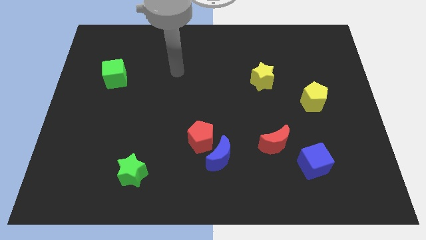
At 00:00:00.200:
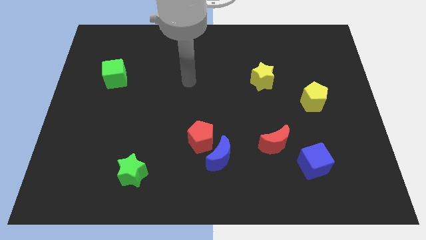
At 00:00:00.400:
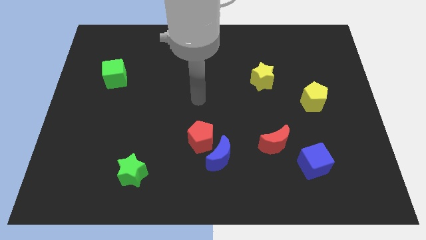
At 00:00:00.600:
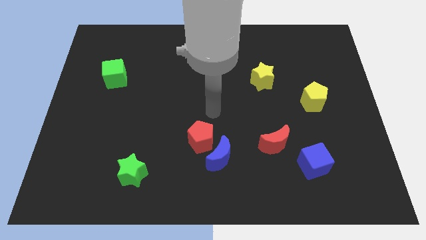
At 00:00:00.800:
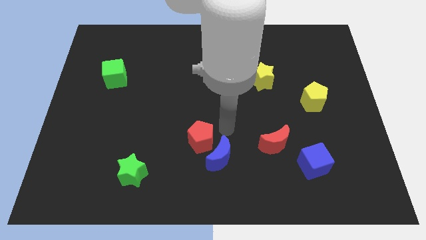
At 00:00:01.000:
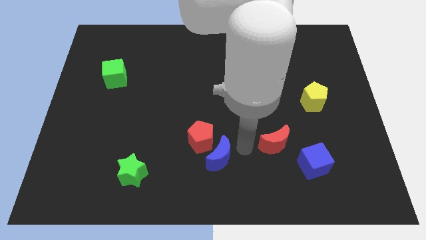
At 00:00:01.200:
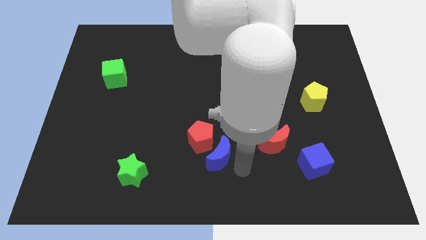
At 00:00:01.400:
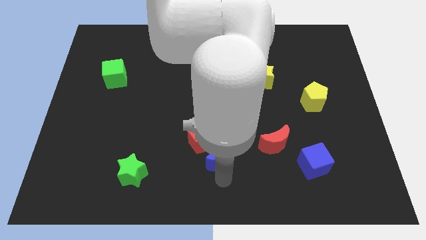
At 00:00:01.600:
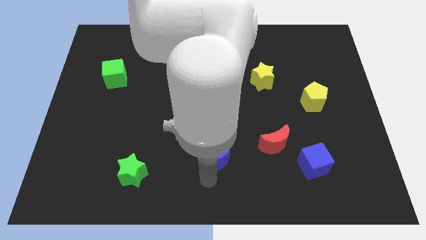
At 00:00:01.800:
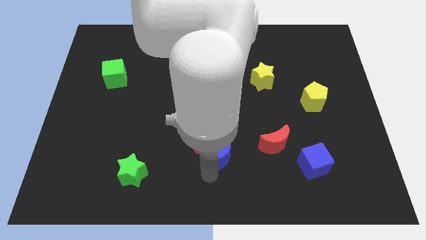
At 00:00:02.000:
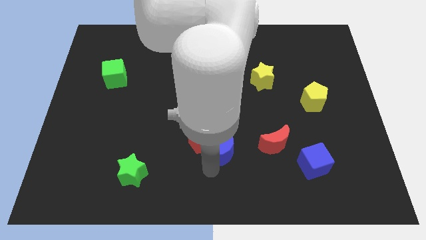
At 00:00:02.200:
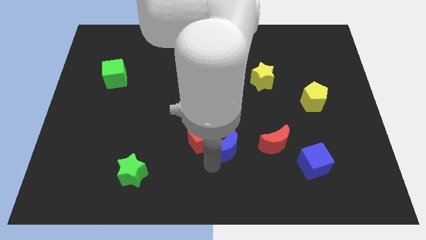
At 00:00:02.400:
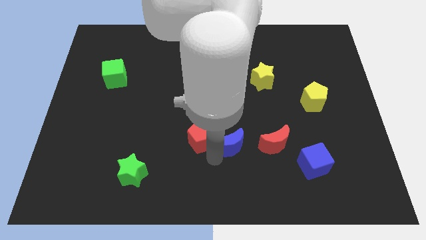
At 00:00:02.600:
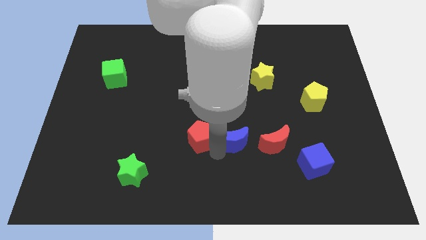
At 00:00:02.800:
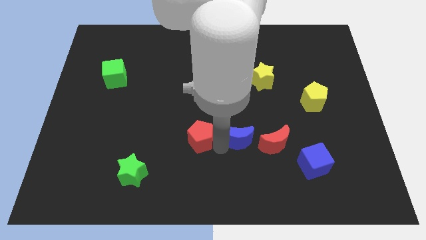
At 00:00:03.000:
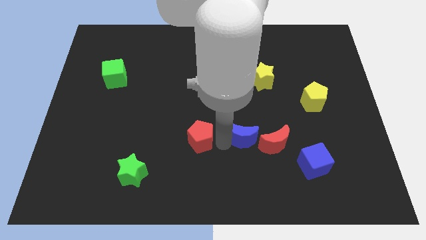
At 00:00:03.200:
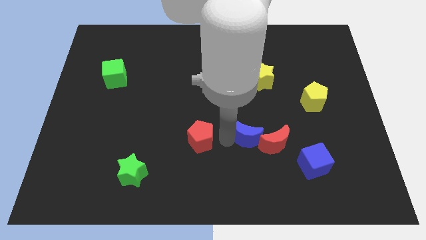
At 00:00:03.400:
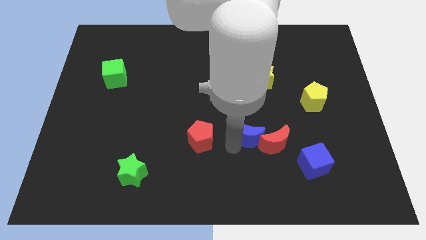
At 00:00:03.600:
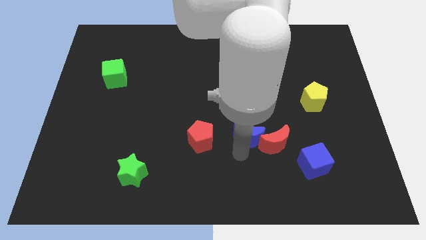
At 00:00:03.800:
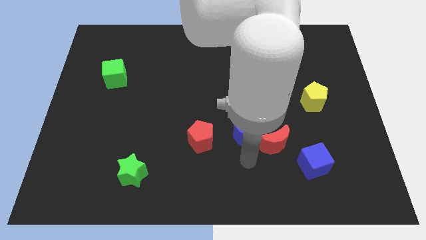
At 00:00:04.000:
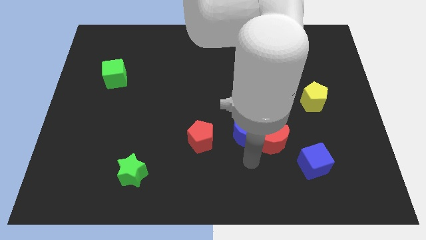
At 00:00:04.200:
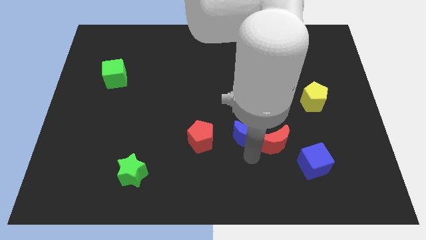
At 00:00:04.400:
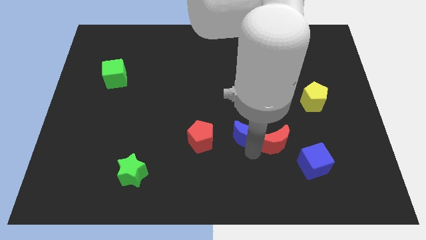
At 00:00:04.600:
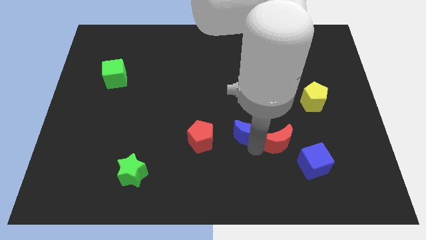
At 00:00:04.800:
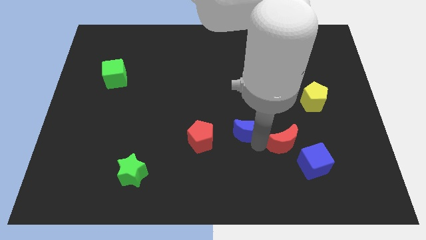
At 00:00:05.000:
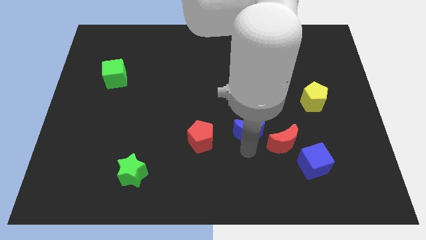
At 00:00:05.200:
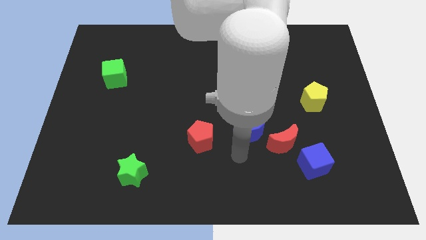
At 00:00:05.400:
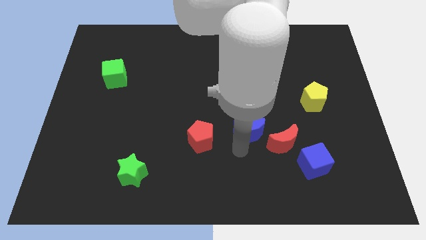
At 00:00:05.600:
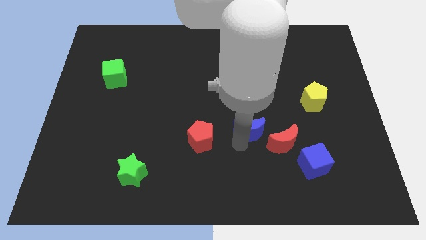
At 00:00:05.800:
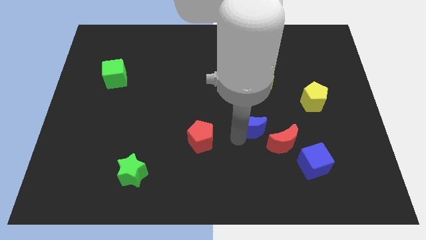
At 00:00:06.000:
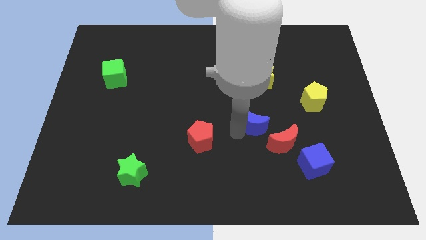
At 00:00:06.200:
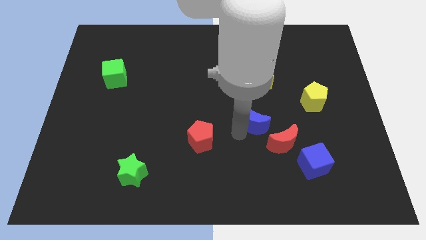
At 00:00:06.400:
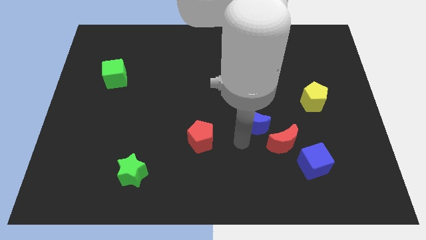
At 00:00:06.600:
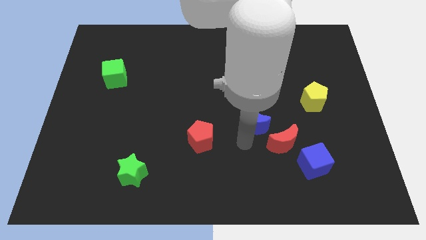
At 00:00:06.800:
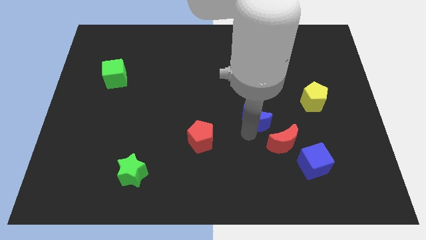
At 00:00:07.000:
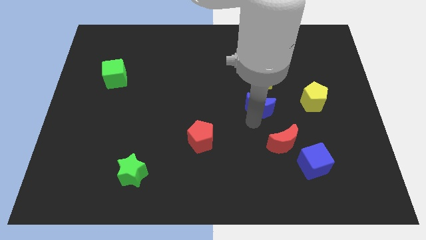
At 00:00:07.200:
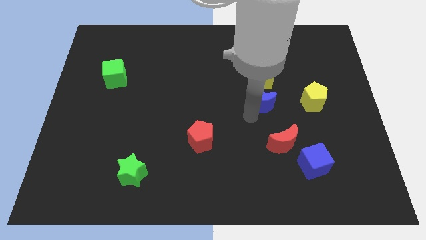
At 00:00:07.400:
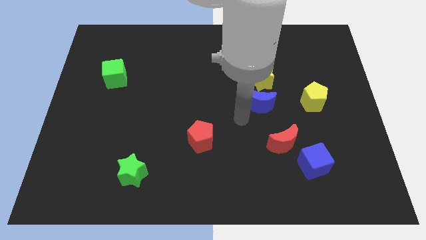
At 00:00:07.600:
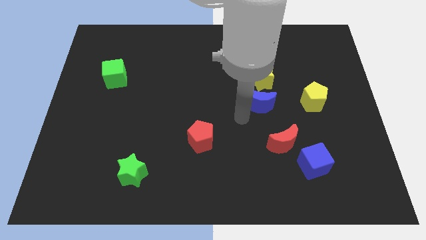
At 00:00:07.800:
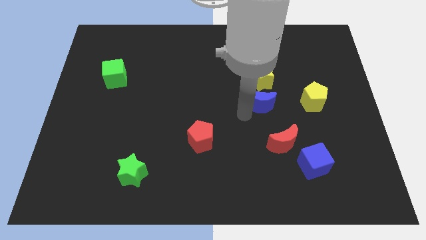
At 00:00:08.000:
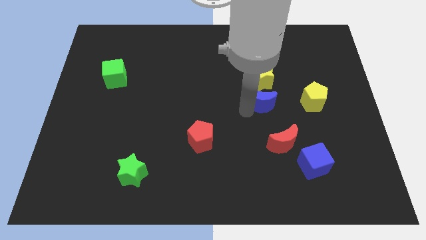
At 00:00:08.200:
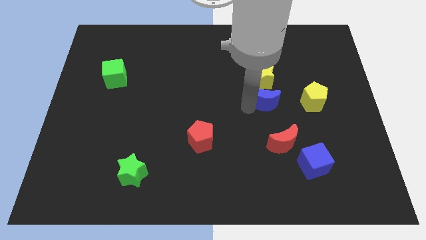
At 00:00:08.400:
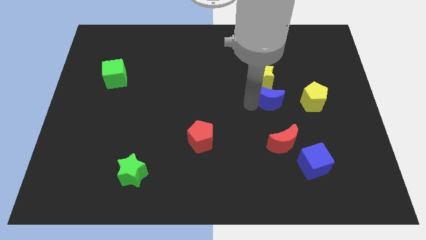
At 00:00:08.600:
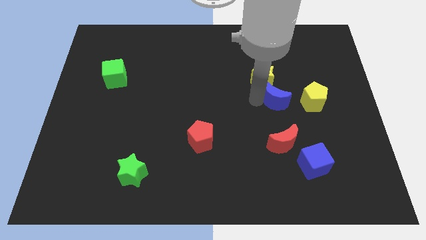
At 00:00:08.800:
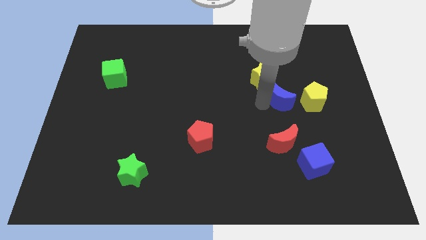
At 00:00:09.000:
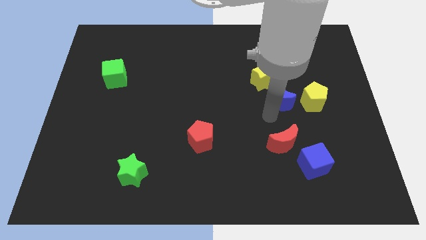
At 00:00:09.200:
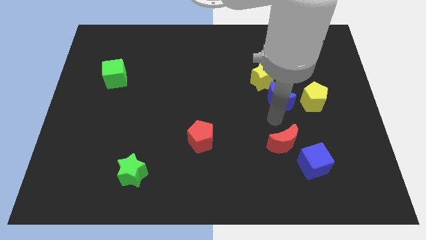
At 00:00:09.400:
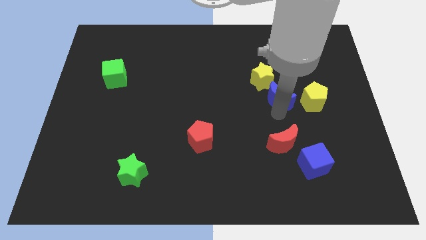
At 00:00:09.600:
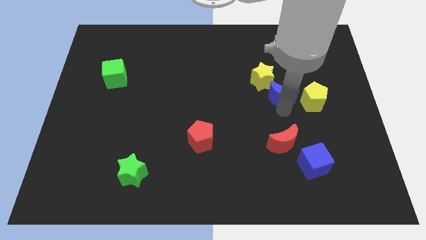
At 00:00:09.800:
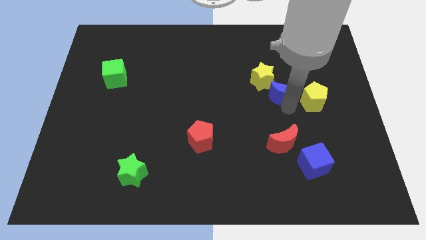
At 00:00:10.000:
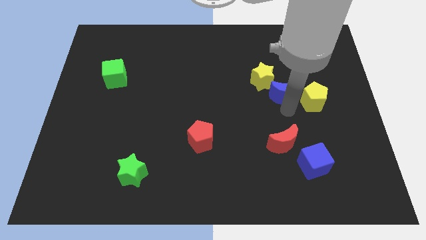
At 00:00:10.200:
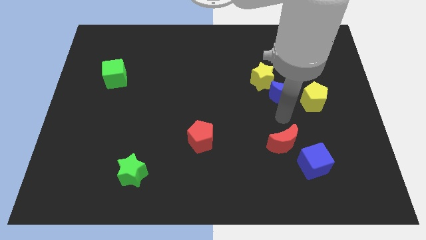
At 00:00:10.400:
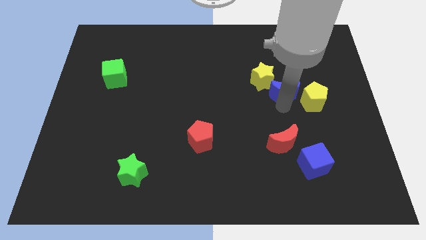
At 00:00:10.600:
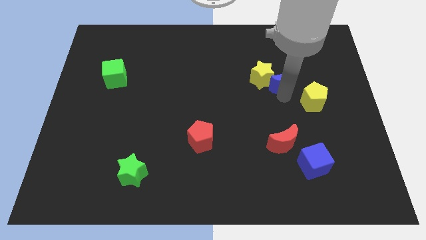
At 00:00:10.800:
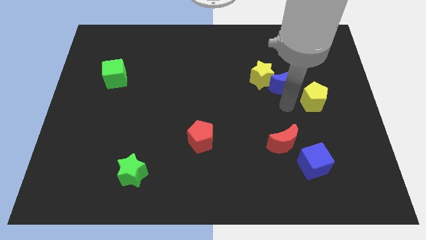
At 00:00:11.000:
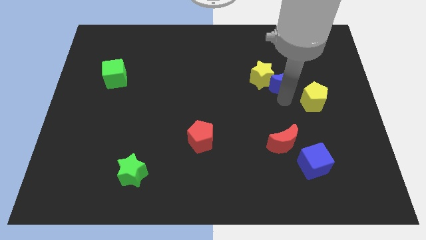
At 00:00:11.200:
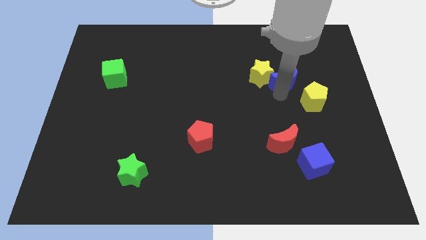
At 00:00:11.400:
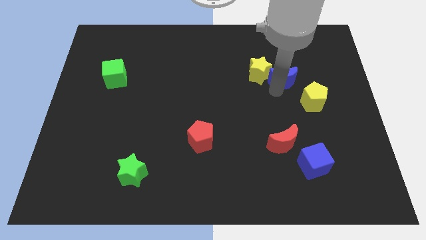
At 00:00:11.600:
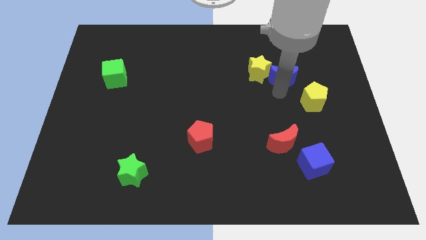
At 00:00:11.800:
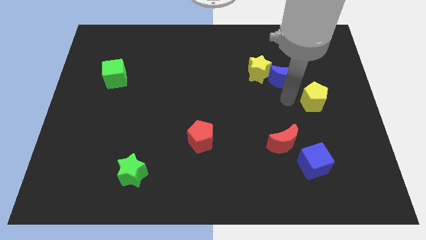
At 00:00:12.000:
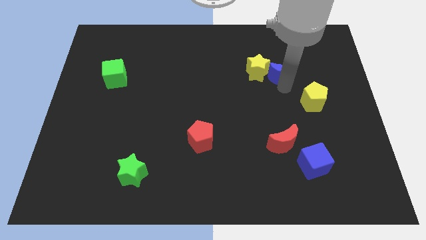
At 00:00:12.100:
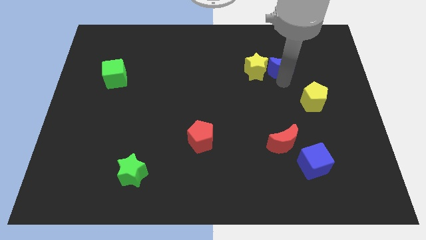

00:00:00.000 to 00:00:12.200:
push the blue moon diagonally up and to the right of the yellow star

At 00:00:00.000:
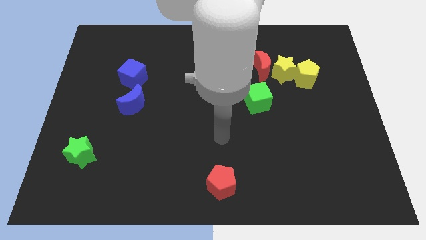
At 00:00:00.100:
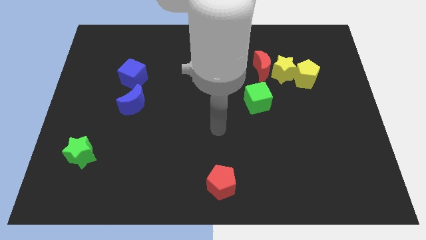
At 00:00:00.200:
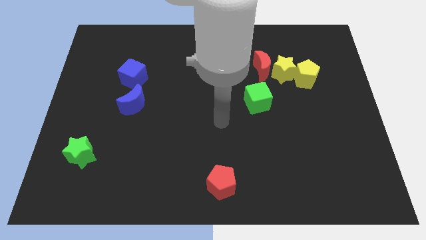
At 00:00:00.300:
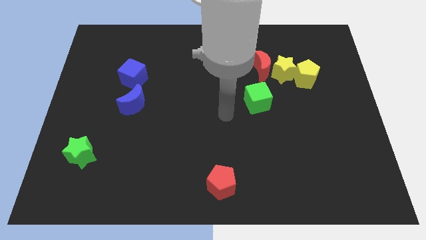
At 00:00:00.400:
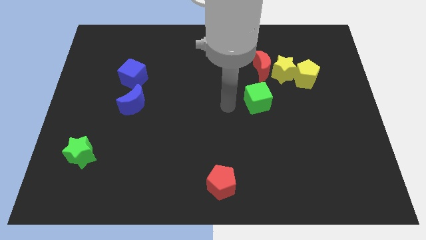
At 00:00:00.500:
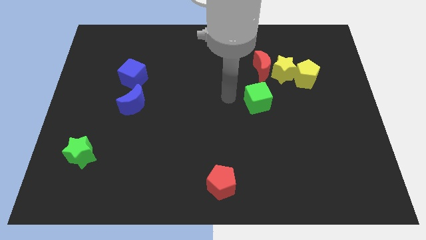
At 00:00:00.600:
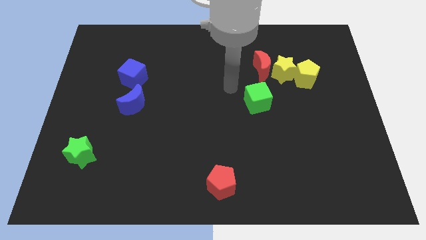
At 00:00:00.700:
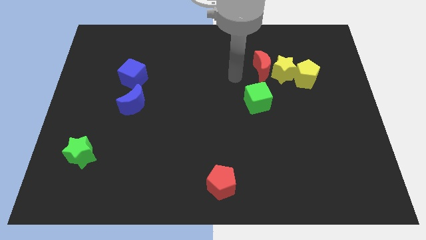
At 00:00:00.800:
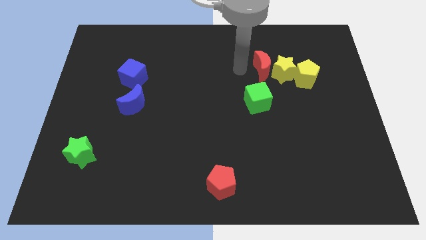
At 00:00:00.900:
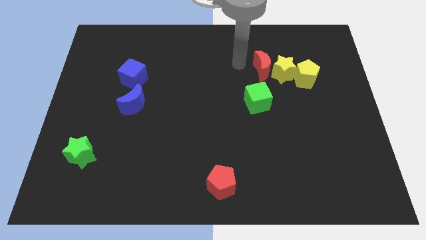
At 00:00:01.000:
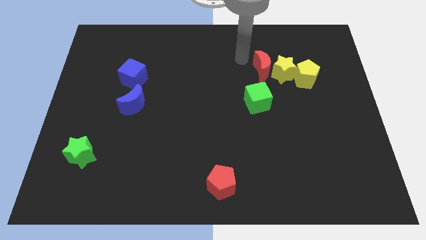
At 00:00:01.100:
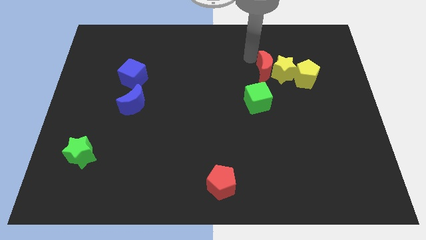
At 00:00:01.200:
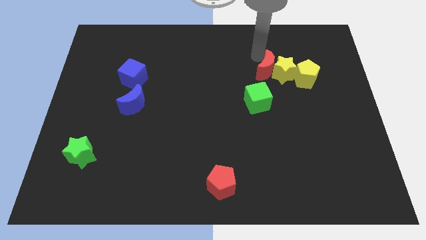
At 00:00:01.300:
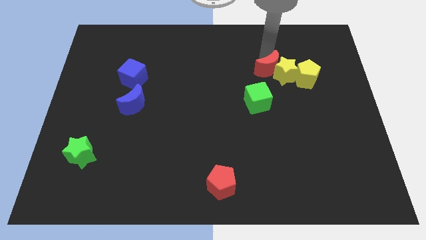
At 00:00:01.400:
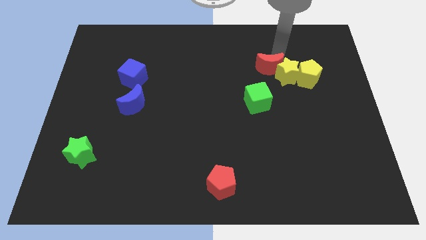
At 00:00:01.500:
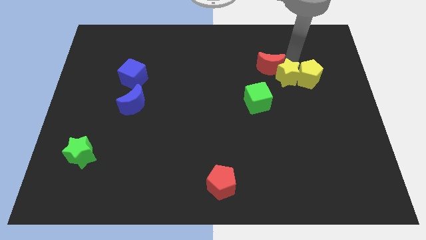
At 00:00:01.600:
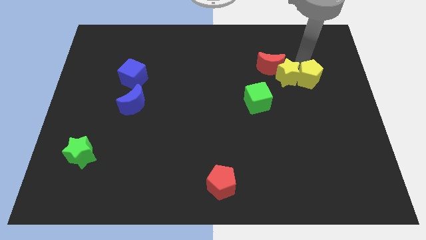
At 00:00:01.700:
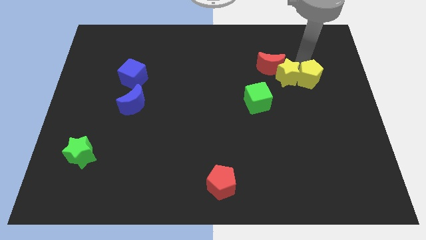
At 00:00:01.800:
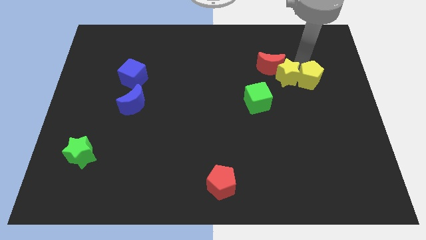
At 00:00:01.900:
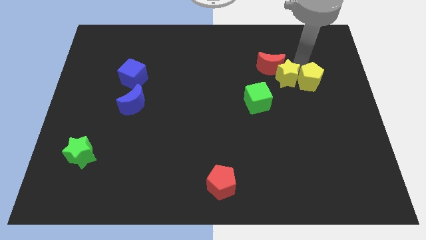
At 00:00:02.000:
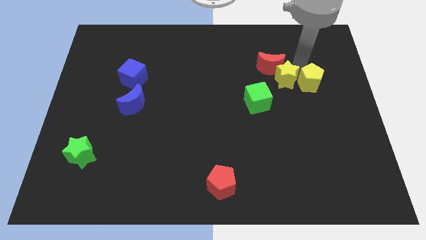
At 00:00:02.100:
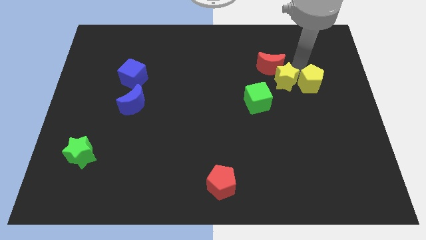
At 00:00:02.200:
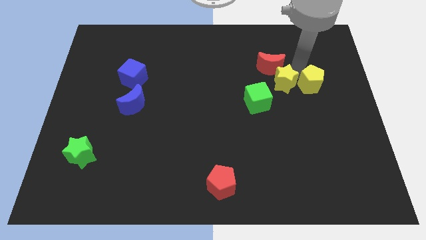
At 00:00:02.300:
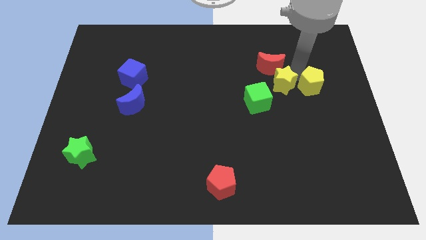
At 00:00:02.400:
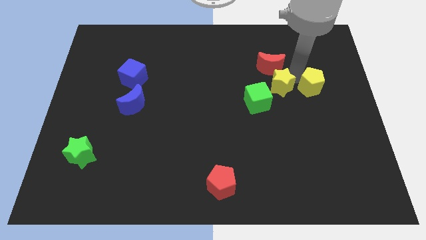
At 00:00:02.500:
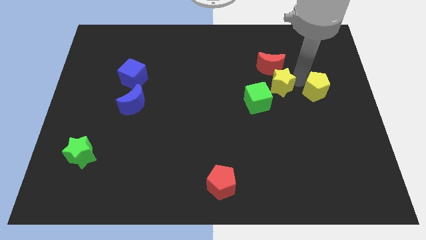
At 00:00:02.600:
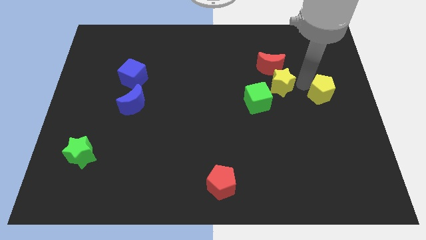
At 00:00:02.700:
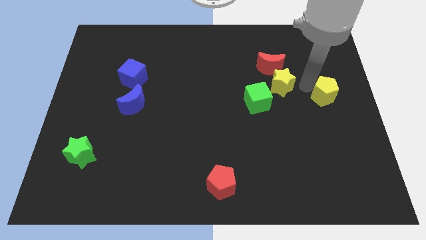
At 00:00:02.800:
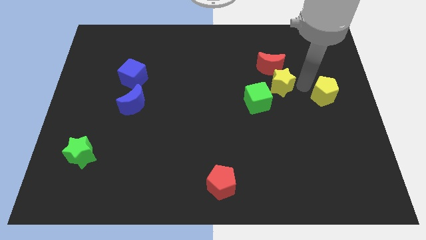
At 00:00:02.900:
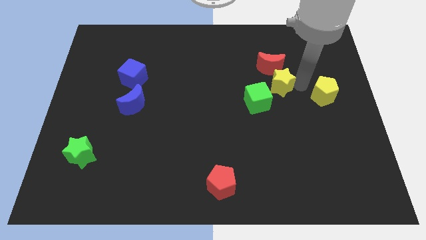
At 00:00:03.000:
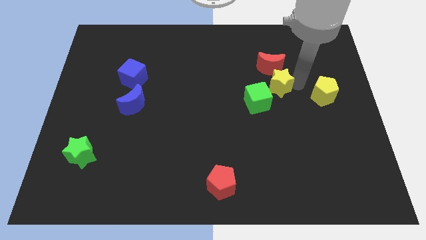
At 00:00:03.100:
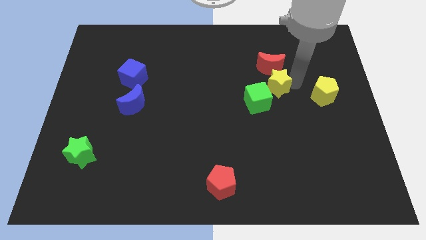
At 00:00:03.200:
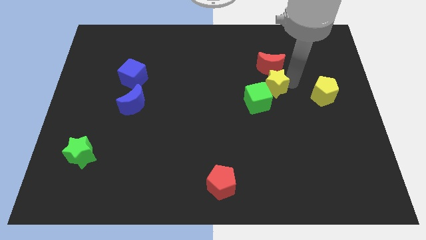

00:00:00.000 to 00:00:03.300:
slide the yellow star to the bottom left side of the red moon
